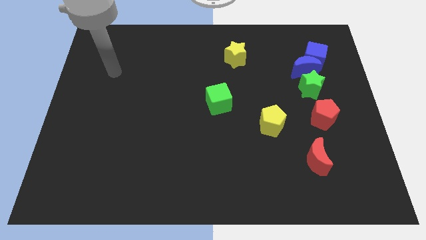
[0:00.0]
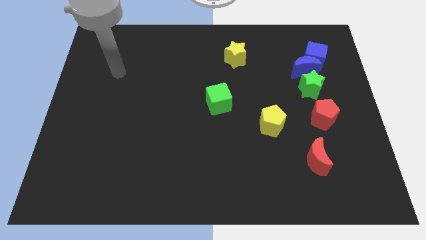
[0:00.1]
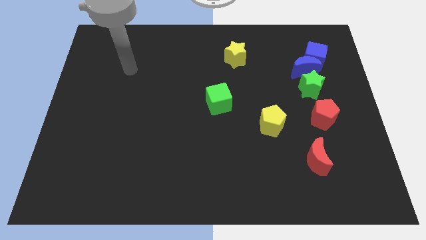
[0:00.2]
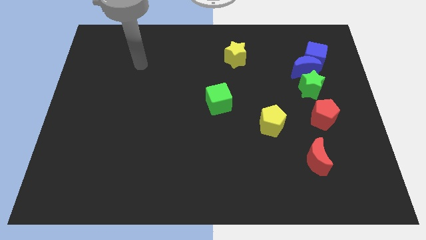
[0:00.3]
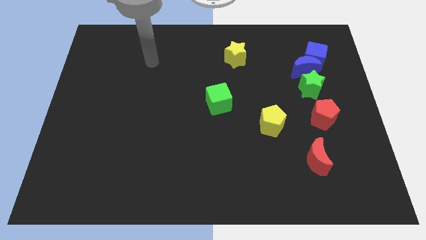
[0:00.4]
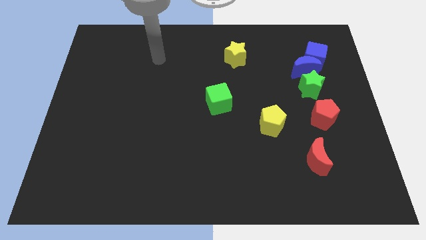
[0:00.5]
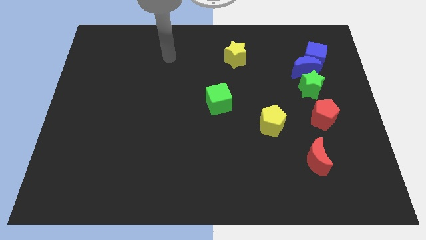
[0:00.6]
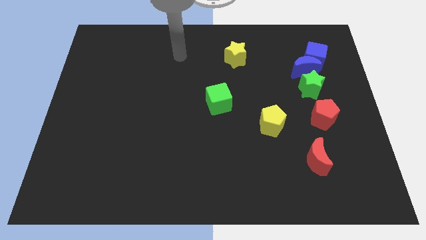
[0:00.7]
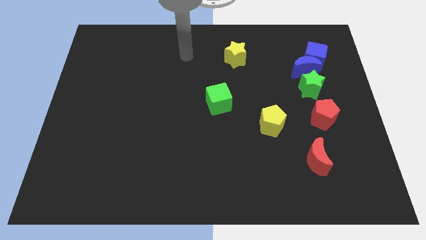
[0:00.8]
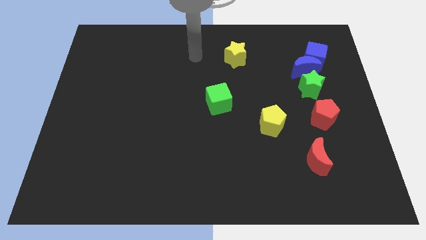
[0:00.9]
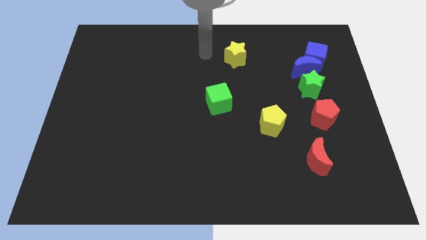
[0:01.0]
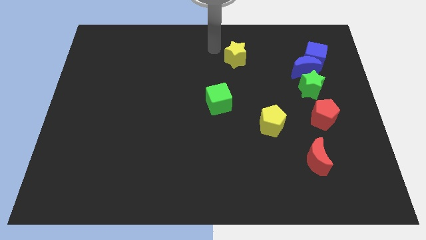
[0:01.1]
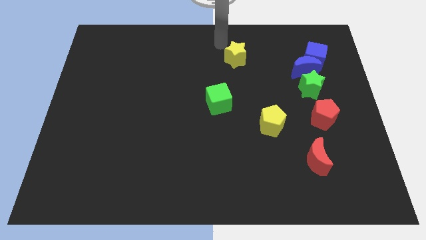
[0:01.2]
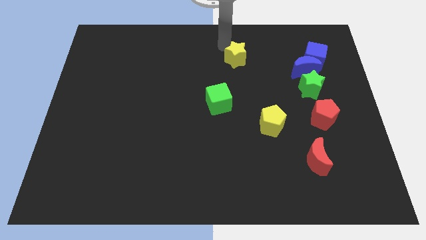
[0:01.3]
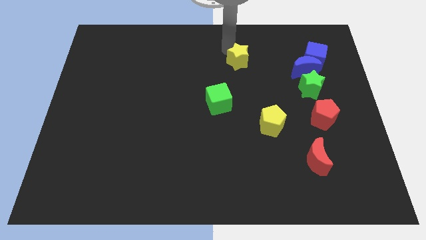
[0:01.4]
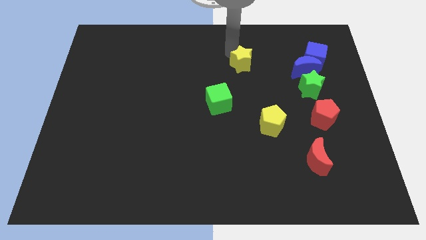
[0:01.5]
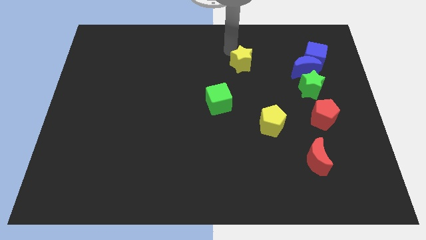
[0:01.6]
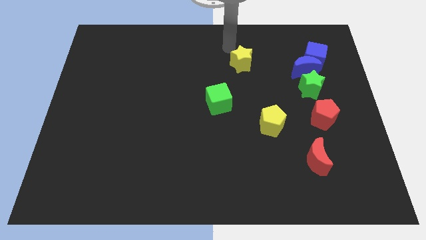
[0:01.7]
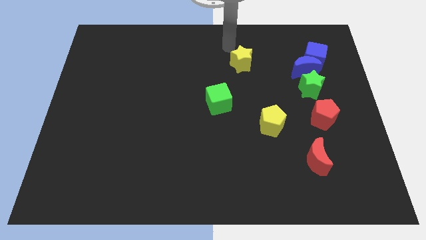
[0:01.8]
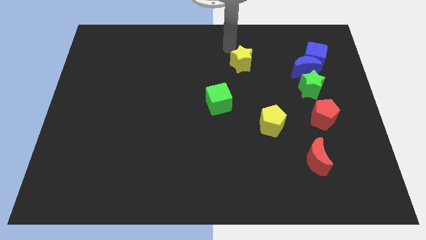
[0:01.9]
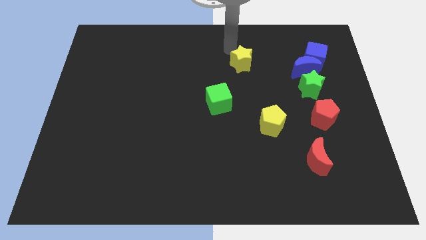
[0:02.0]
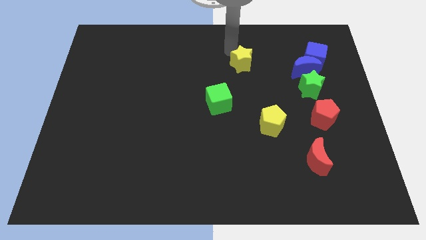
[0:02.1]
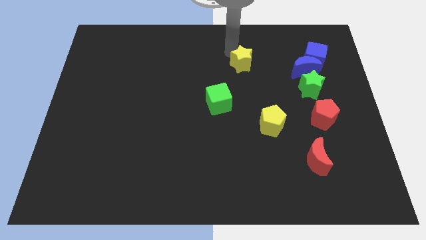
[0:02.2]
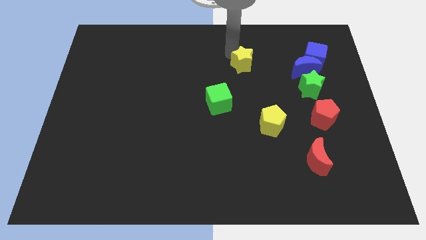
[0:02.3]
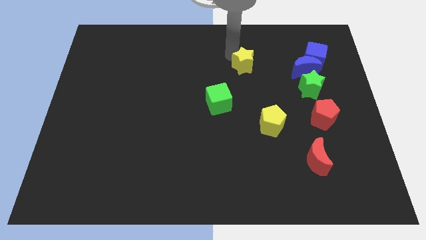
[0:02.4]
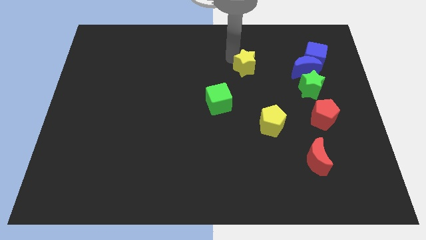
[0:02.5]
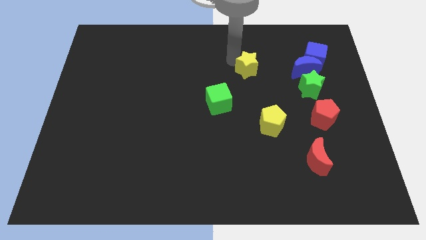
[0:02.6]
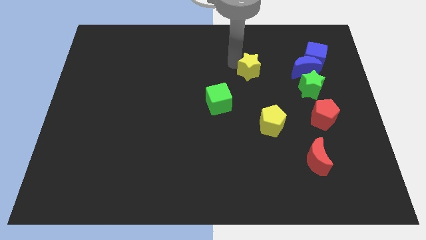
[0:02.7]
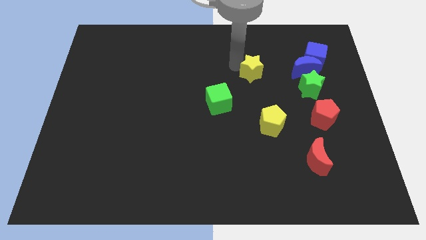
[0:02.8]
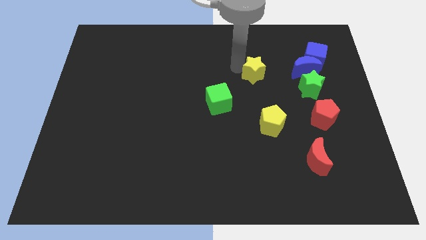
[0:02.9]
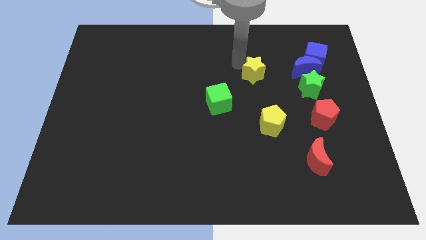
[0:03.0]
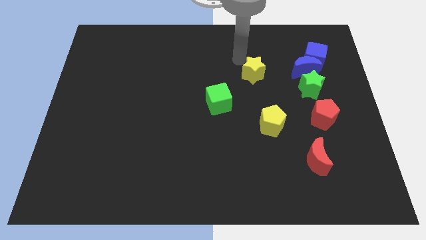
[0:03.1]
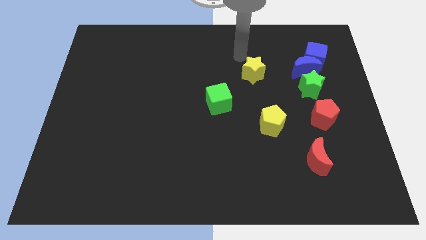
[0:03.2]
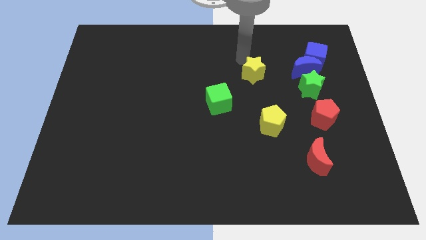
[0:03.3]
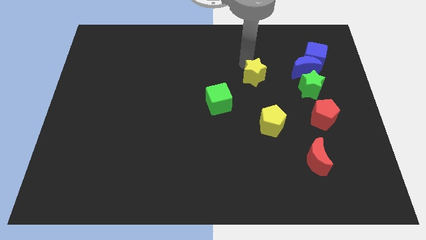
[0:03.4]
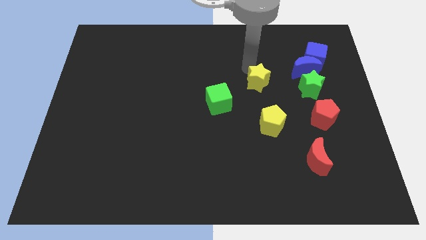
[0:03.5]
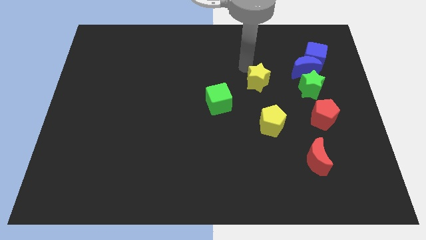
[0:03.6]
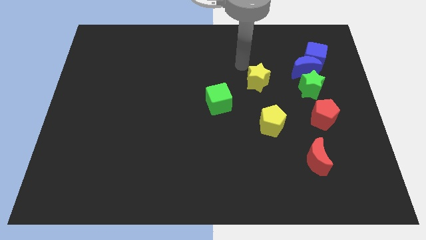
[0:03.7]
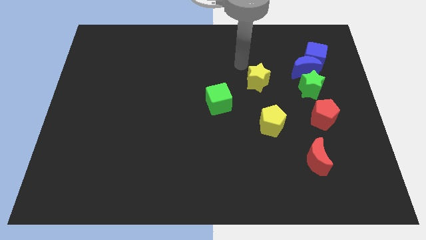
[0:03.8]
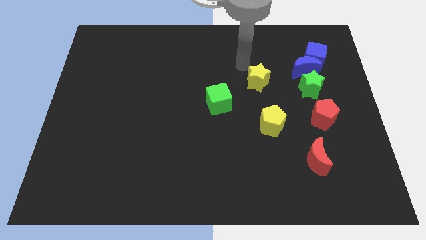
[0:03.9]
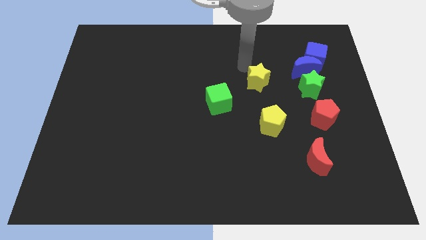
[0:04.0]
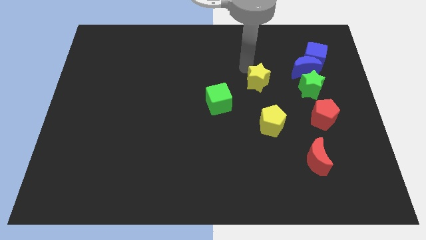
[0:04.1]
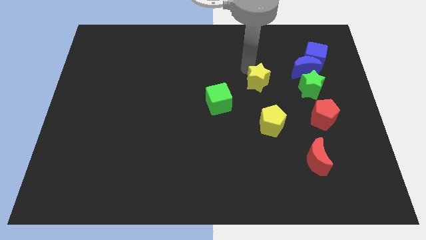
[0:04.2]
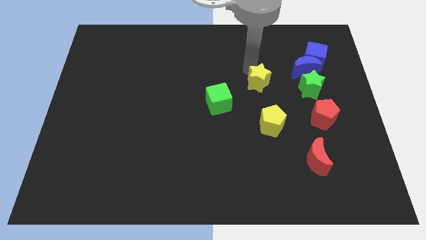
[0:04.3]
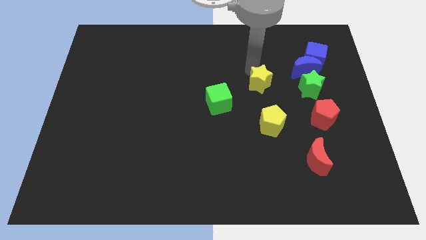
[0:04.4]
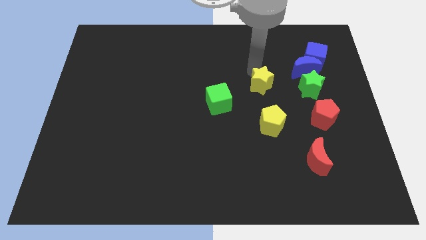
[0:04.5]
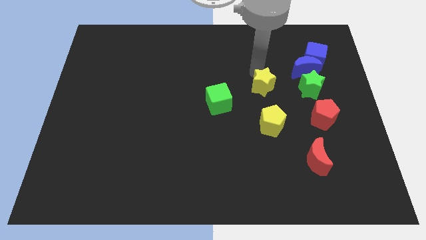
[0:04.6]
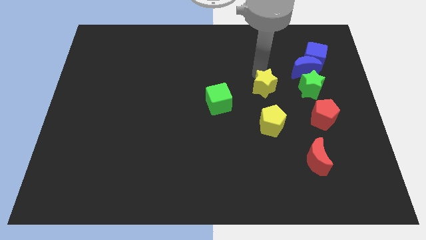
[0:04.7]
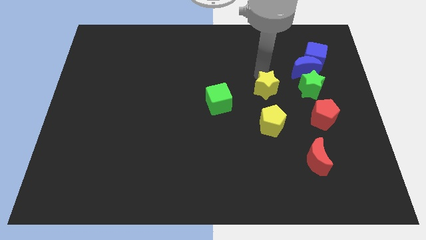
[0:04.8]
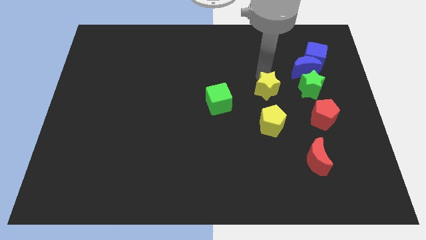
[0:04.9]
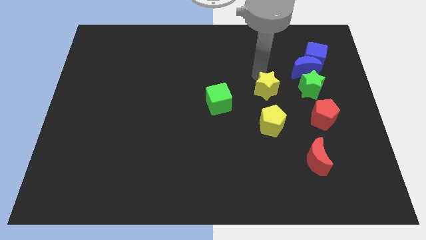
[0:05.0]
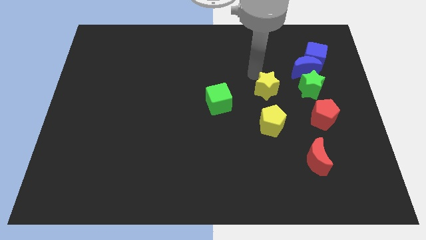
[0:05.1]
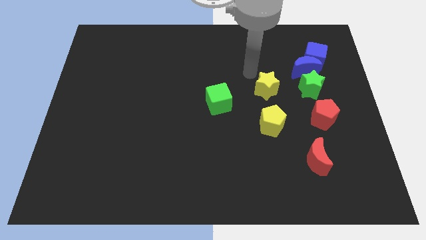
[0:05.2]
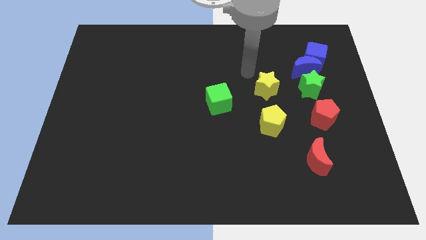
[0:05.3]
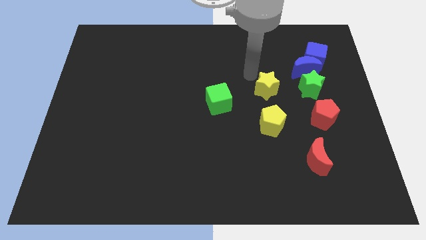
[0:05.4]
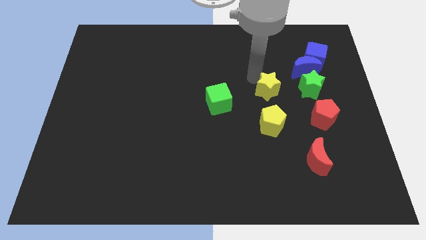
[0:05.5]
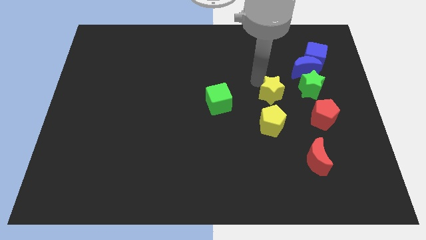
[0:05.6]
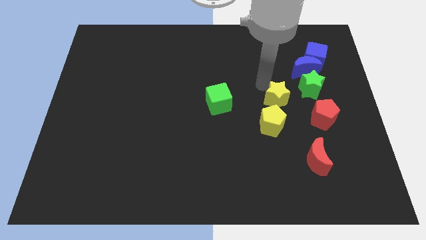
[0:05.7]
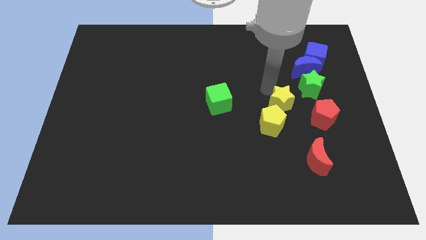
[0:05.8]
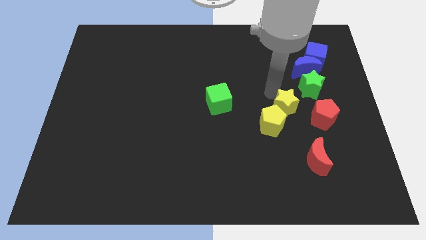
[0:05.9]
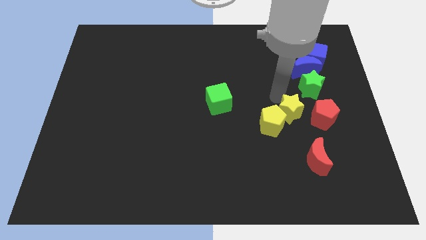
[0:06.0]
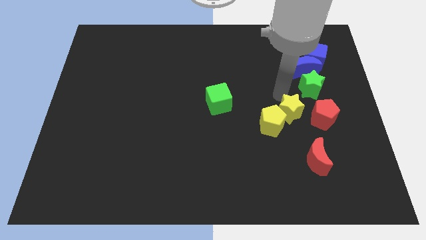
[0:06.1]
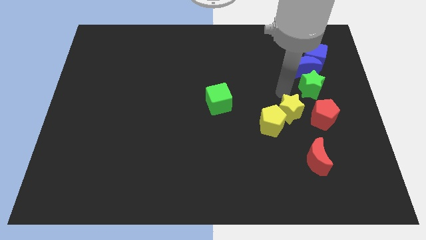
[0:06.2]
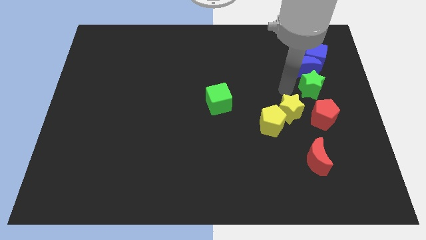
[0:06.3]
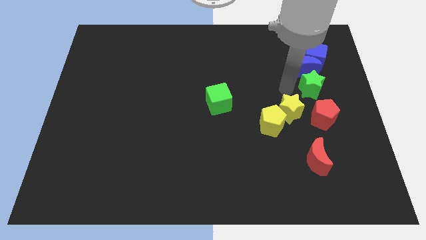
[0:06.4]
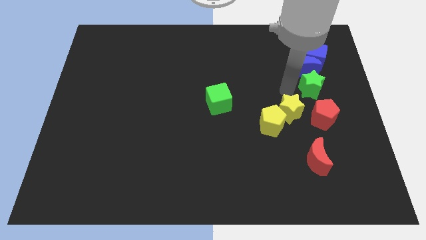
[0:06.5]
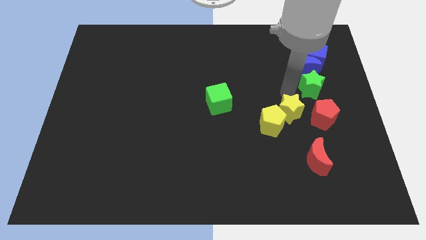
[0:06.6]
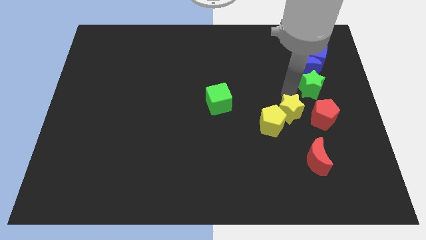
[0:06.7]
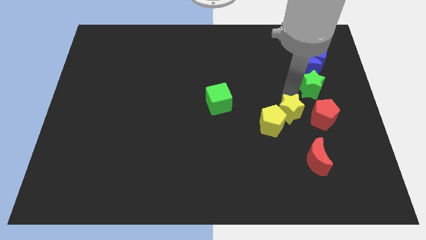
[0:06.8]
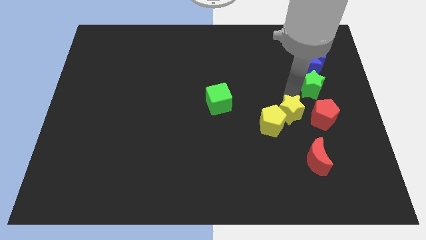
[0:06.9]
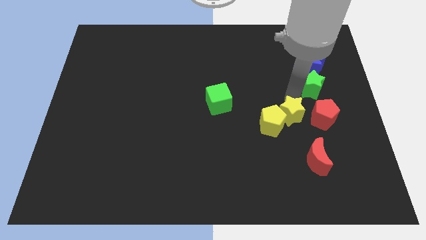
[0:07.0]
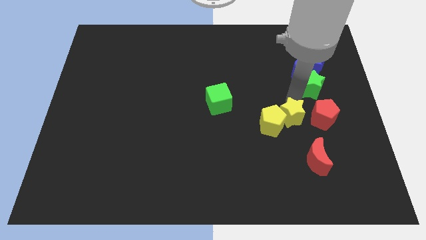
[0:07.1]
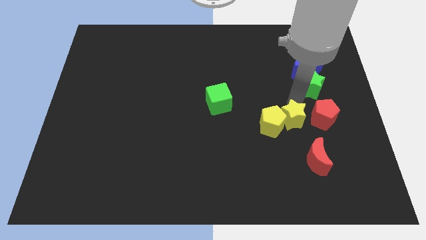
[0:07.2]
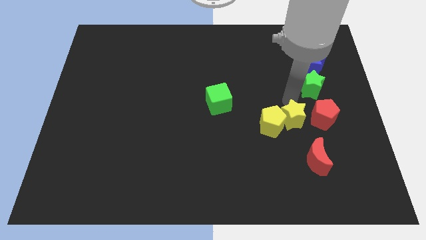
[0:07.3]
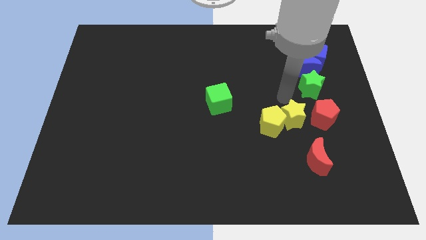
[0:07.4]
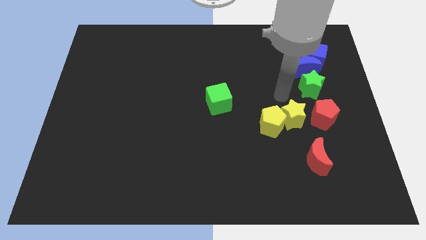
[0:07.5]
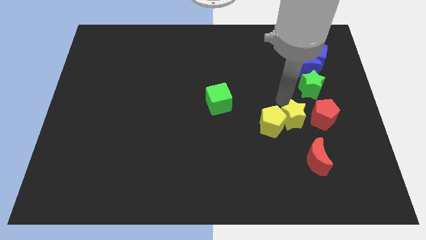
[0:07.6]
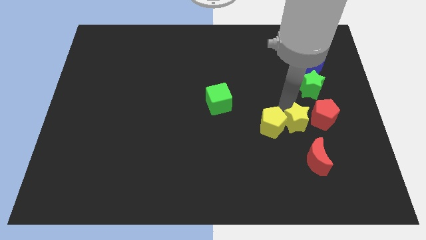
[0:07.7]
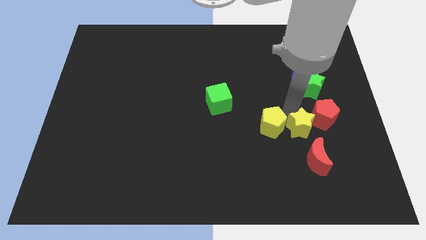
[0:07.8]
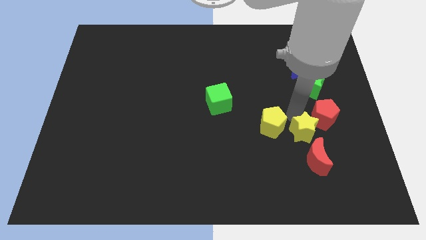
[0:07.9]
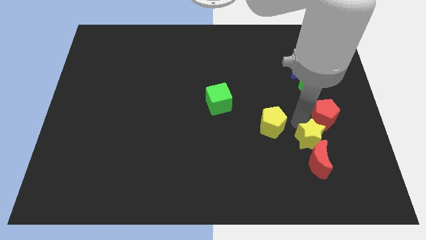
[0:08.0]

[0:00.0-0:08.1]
slide the yellow star close to the red moon
